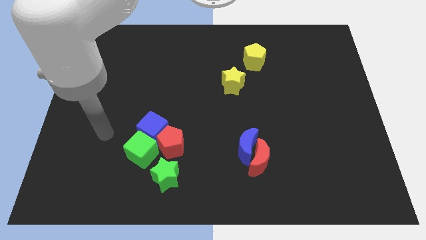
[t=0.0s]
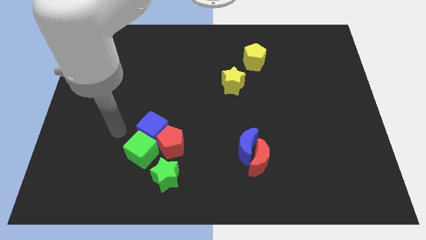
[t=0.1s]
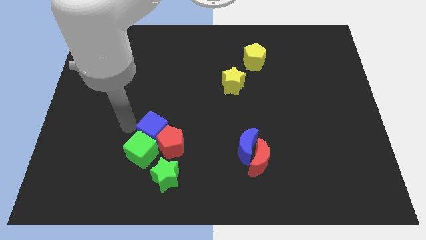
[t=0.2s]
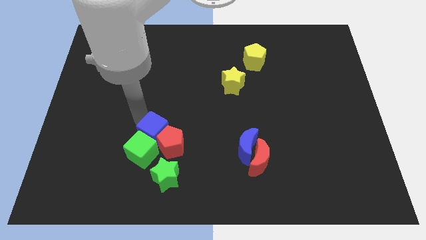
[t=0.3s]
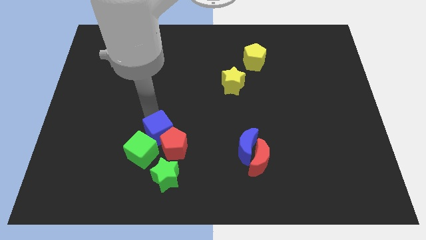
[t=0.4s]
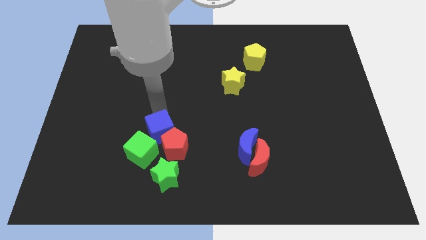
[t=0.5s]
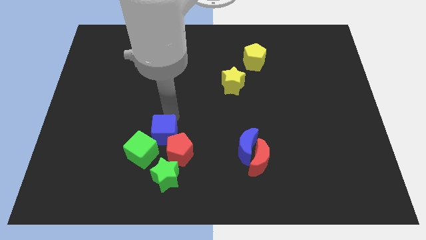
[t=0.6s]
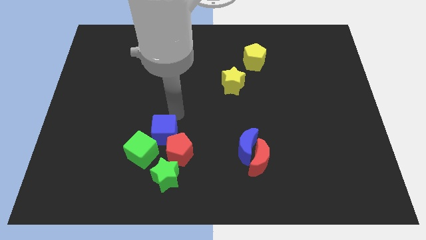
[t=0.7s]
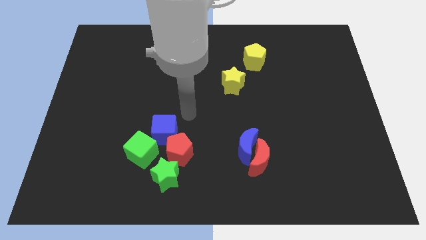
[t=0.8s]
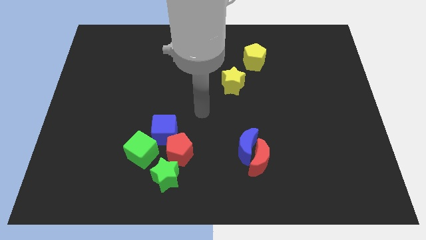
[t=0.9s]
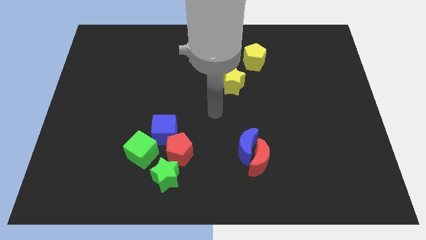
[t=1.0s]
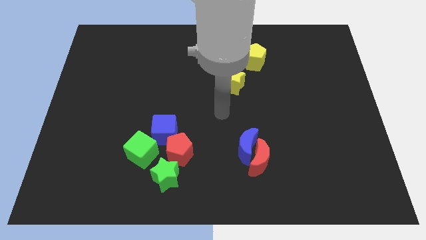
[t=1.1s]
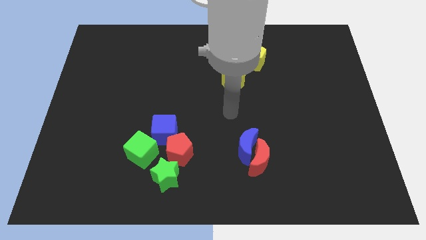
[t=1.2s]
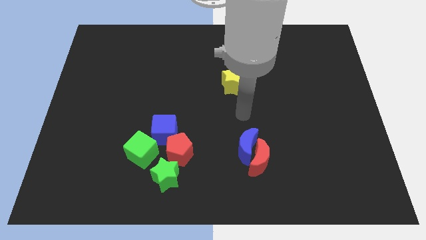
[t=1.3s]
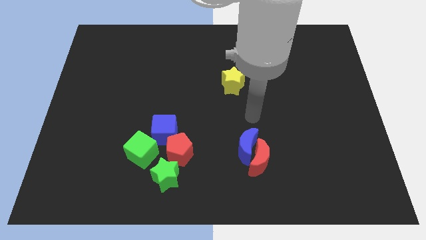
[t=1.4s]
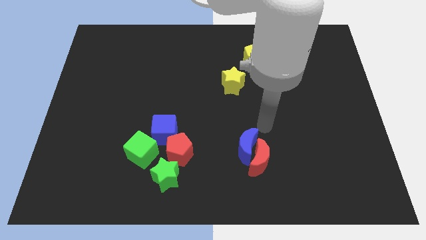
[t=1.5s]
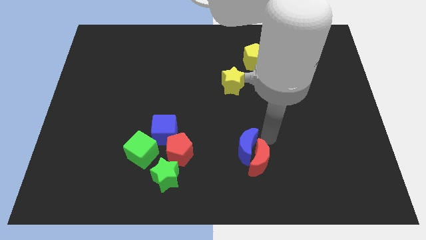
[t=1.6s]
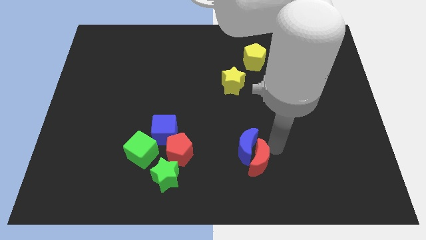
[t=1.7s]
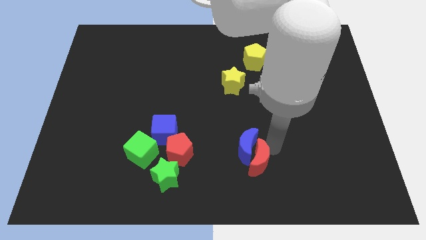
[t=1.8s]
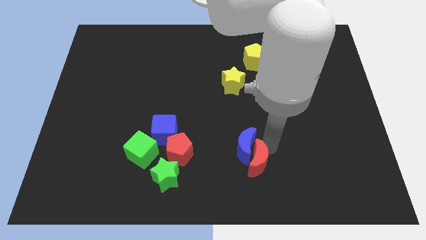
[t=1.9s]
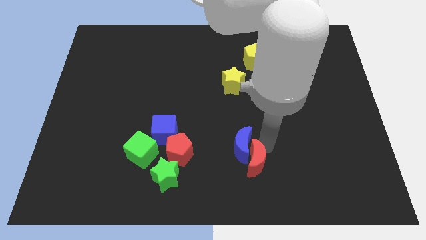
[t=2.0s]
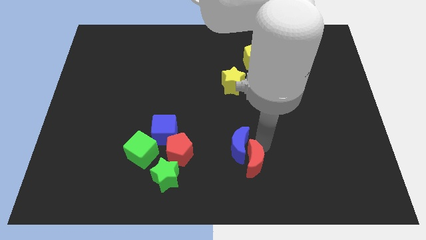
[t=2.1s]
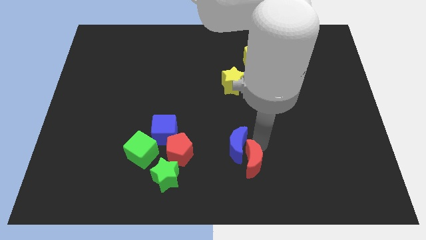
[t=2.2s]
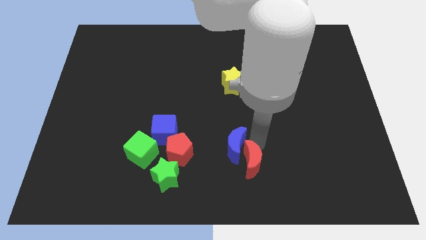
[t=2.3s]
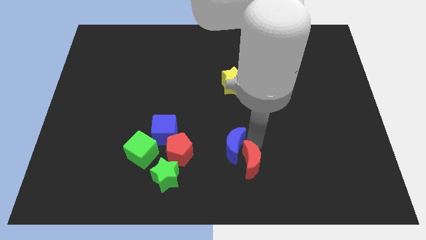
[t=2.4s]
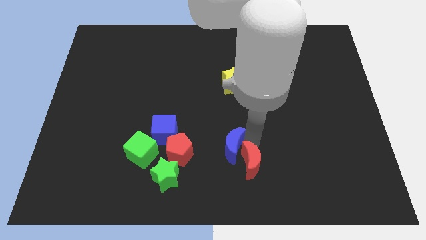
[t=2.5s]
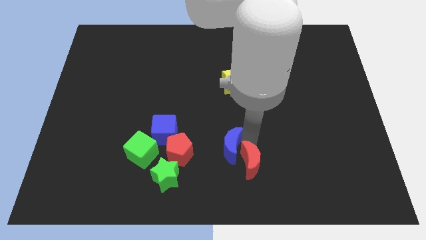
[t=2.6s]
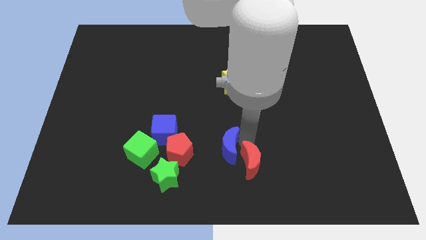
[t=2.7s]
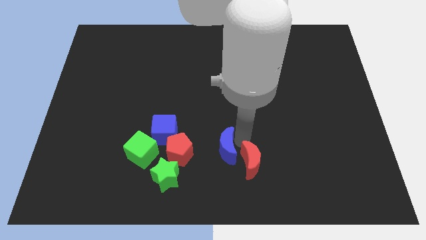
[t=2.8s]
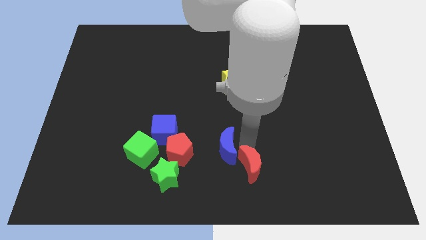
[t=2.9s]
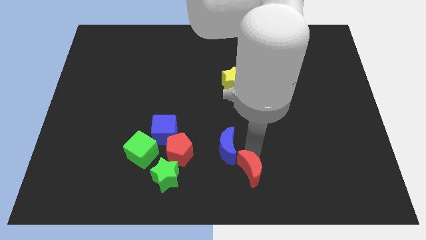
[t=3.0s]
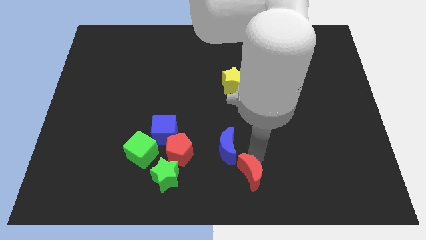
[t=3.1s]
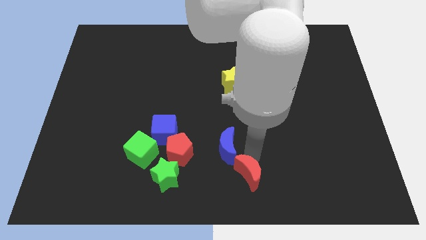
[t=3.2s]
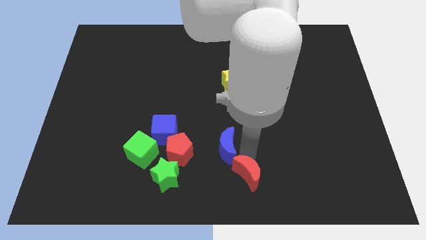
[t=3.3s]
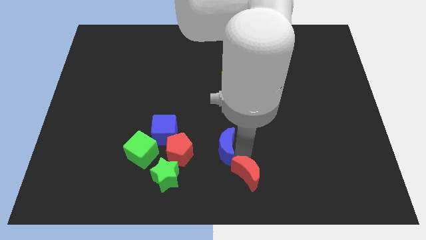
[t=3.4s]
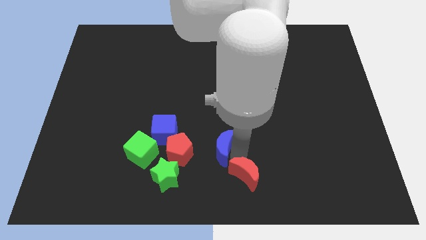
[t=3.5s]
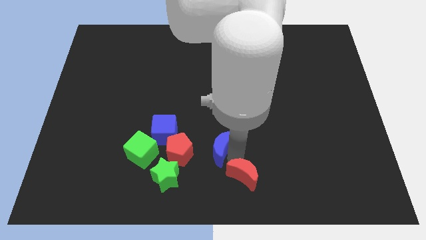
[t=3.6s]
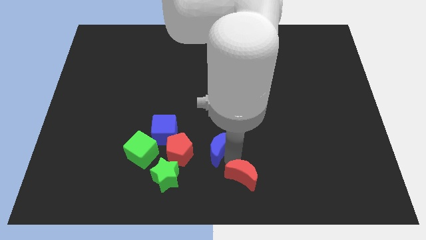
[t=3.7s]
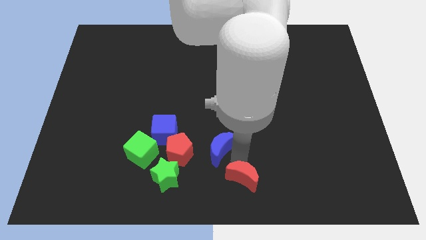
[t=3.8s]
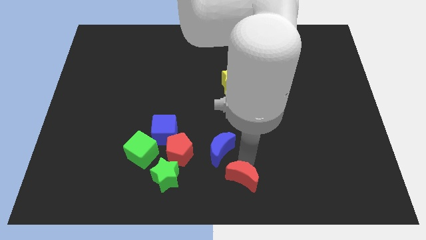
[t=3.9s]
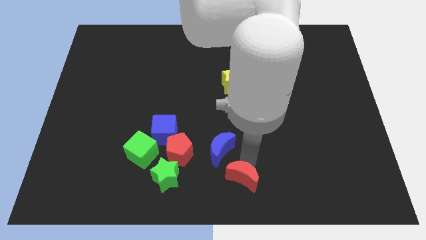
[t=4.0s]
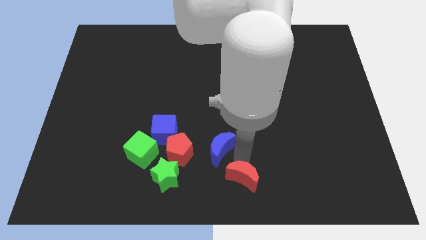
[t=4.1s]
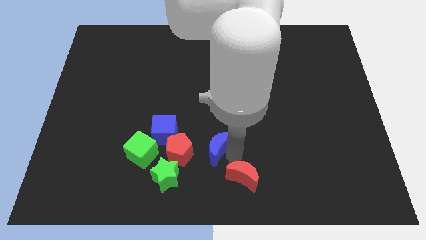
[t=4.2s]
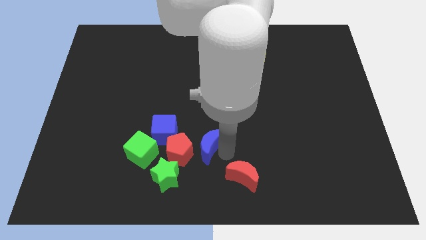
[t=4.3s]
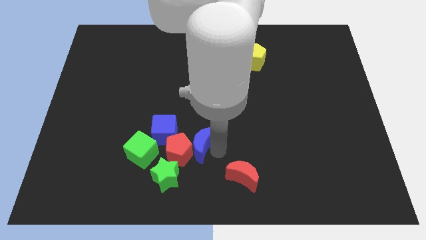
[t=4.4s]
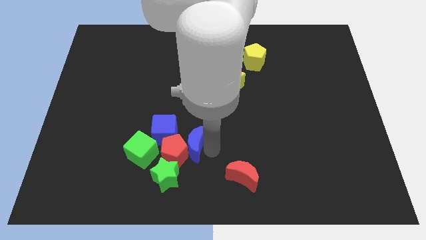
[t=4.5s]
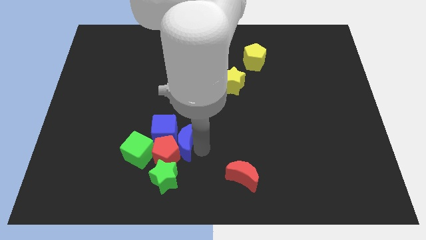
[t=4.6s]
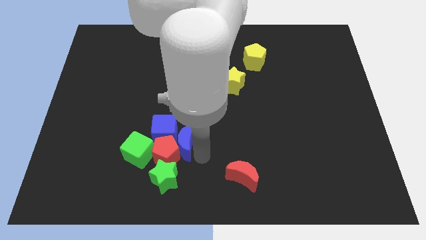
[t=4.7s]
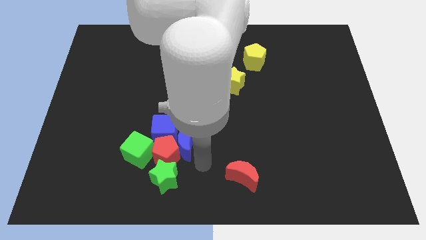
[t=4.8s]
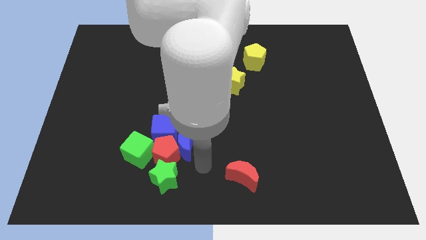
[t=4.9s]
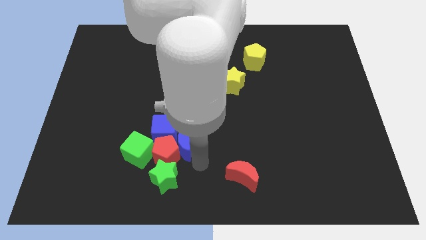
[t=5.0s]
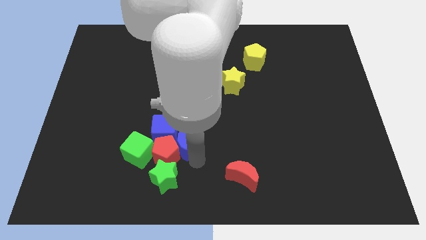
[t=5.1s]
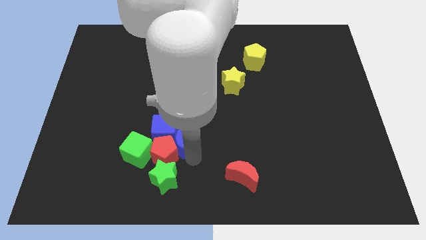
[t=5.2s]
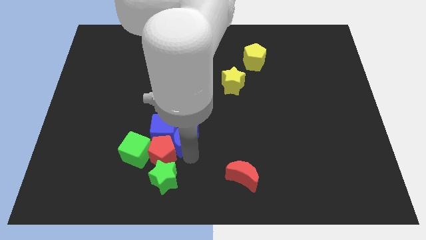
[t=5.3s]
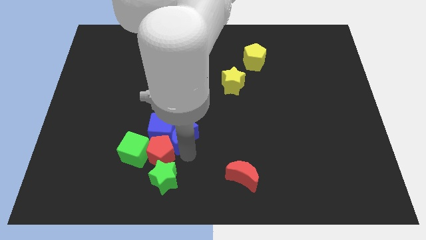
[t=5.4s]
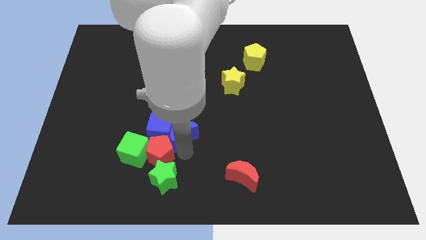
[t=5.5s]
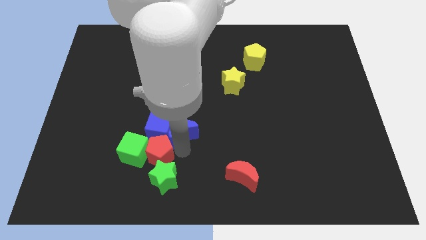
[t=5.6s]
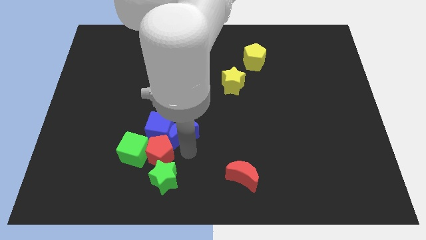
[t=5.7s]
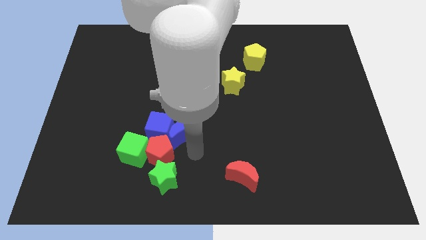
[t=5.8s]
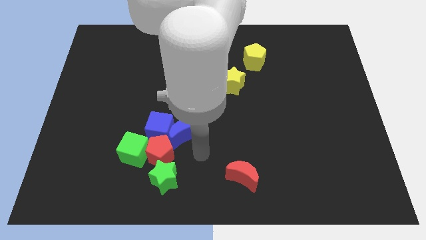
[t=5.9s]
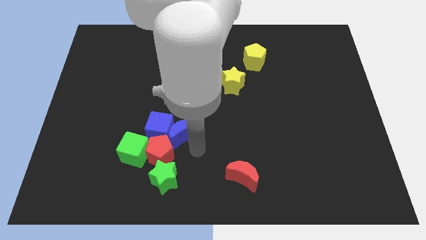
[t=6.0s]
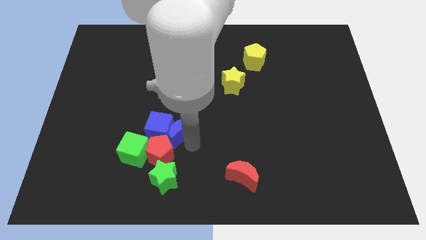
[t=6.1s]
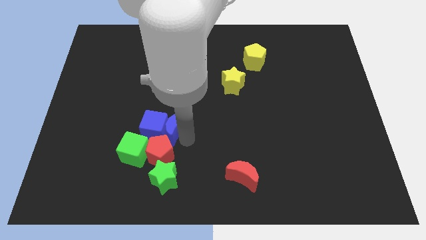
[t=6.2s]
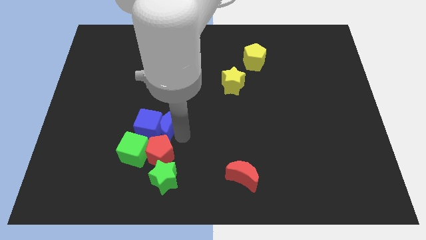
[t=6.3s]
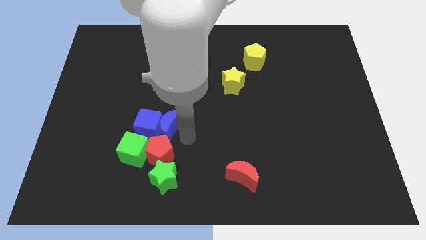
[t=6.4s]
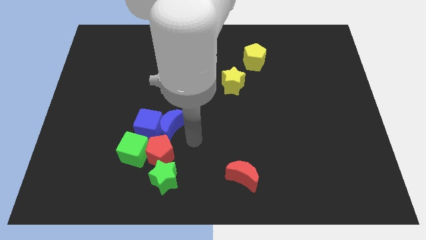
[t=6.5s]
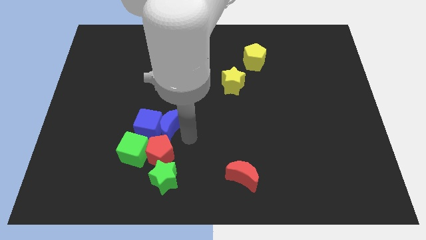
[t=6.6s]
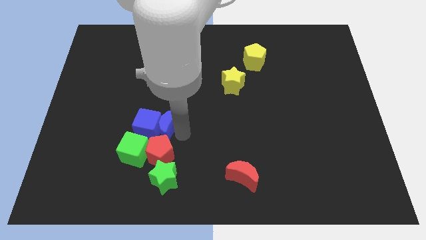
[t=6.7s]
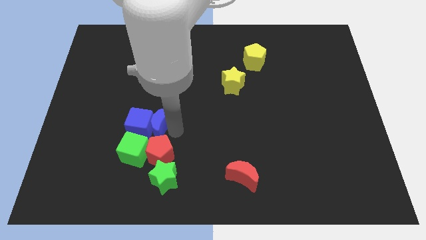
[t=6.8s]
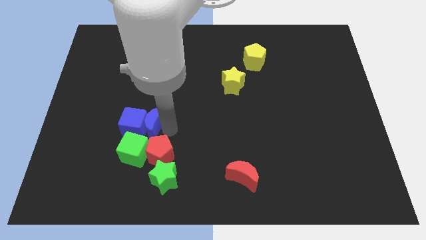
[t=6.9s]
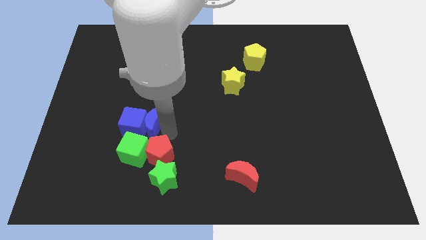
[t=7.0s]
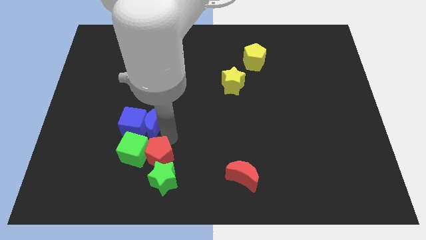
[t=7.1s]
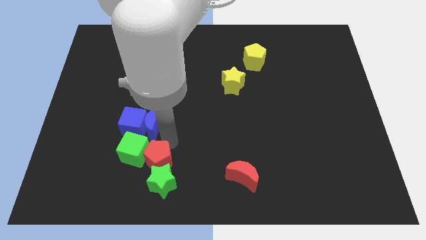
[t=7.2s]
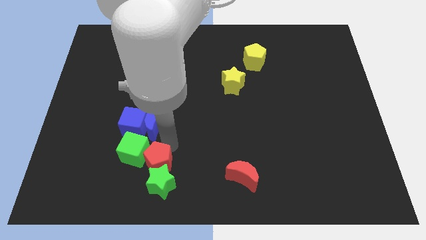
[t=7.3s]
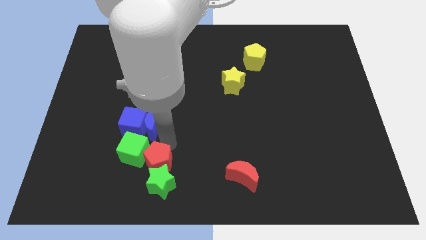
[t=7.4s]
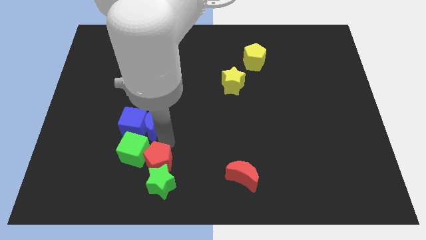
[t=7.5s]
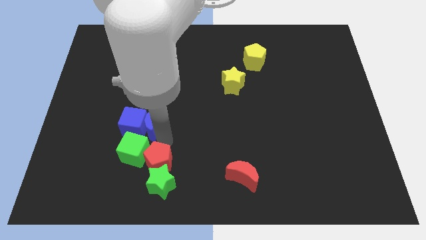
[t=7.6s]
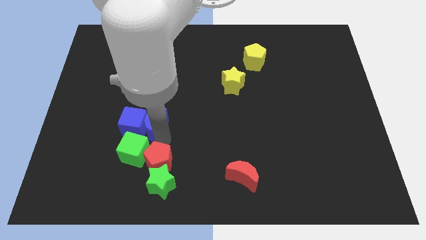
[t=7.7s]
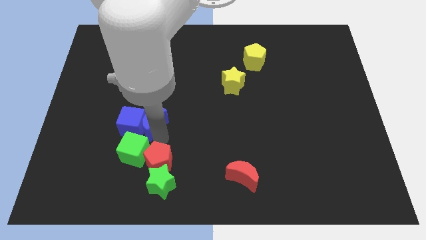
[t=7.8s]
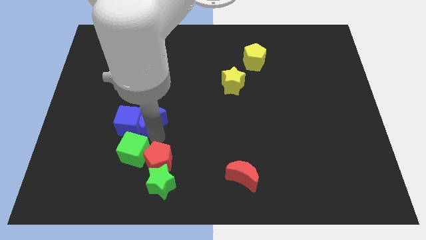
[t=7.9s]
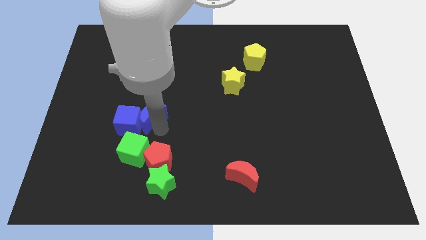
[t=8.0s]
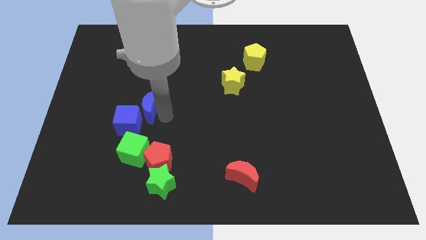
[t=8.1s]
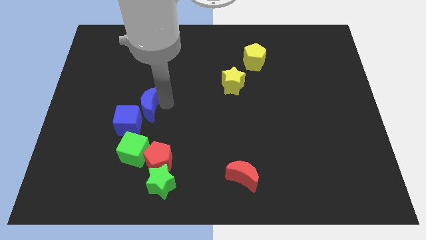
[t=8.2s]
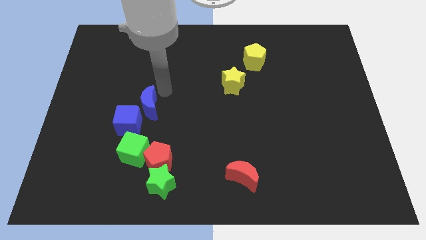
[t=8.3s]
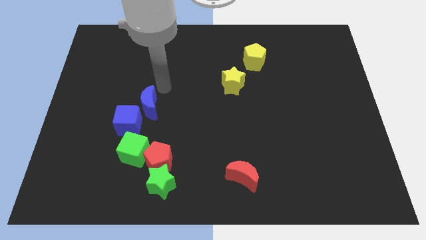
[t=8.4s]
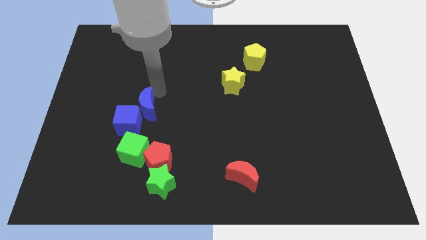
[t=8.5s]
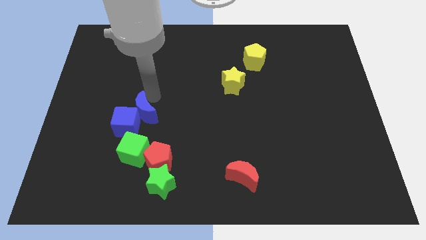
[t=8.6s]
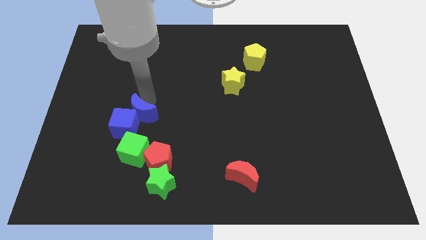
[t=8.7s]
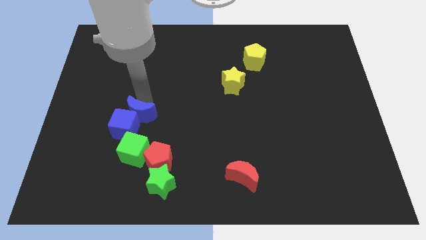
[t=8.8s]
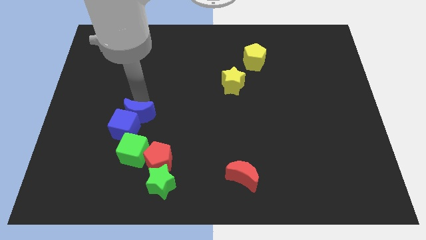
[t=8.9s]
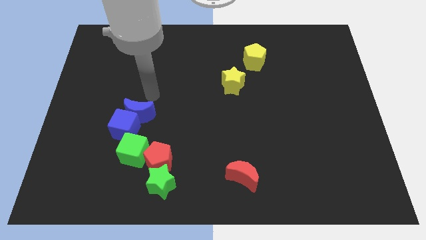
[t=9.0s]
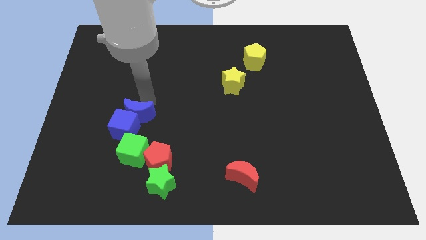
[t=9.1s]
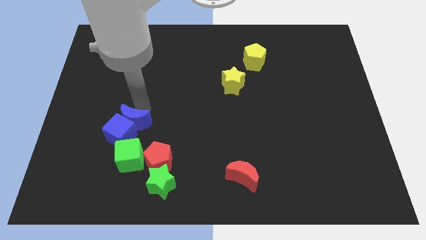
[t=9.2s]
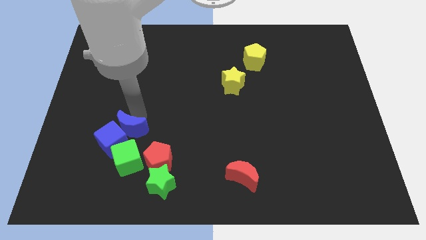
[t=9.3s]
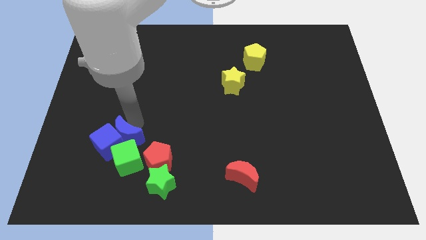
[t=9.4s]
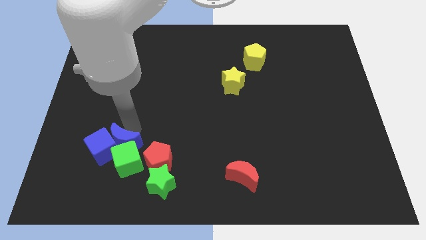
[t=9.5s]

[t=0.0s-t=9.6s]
slide the blue moon left of the red pentagon
